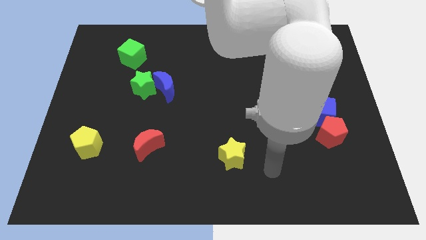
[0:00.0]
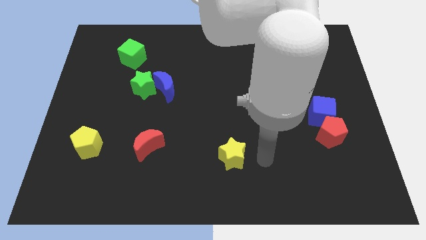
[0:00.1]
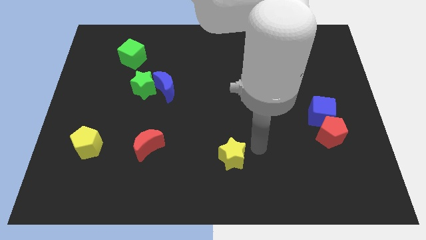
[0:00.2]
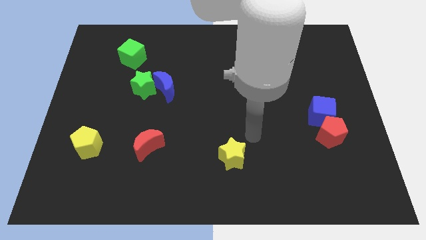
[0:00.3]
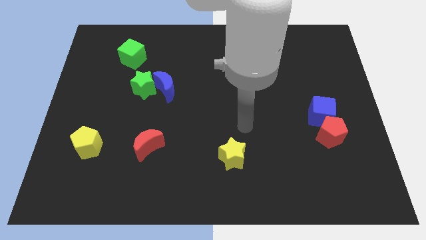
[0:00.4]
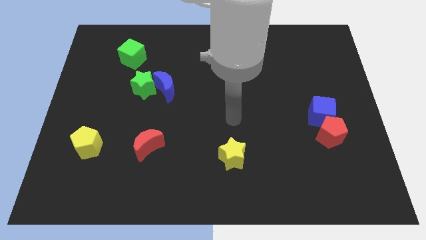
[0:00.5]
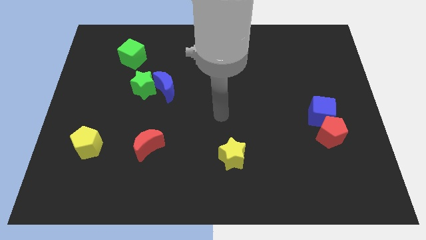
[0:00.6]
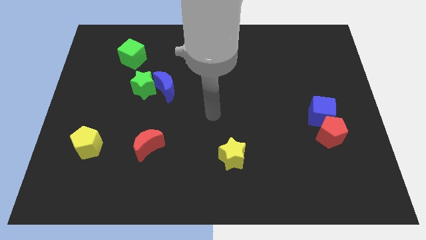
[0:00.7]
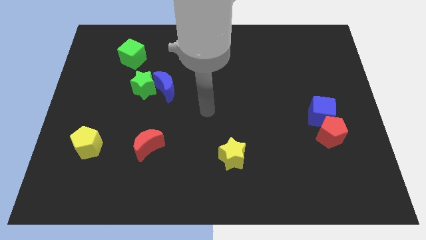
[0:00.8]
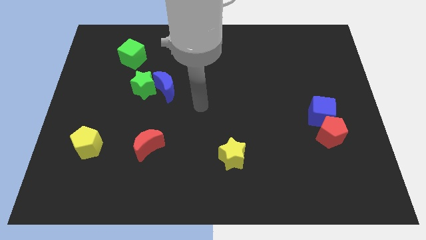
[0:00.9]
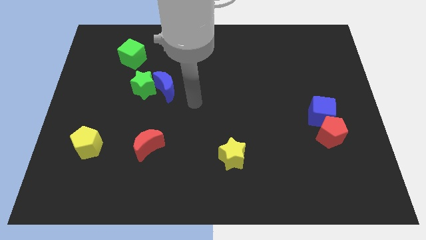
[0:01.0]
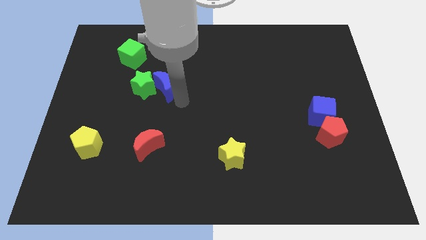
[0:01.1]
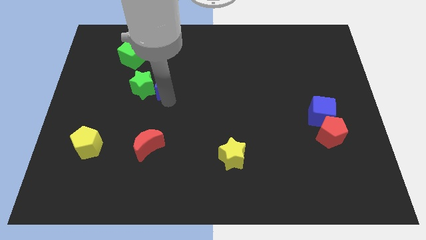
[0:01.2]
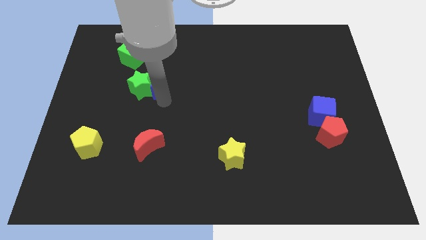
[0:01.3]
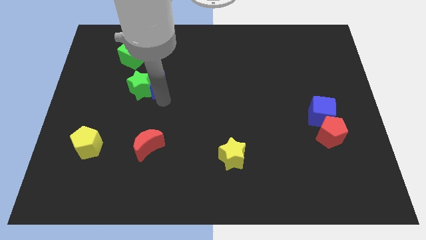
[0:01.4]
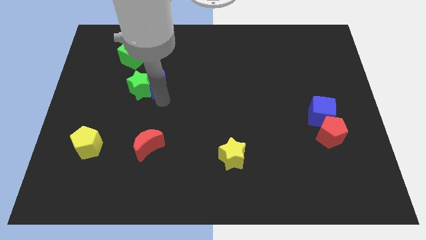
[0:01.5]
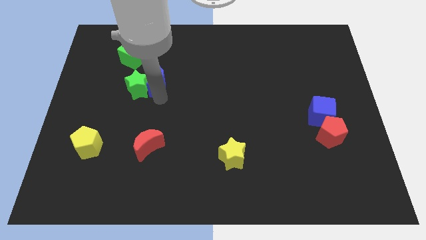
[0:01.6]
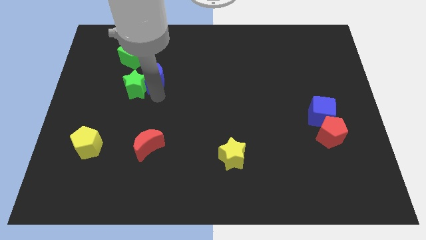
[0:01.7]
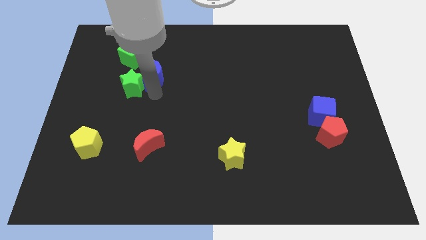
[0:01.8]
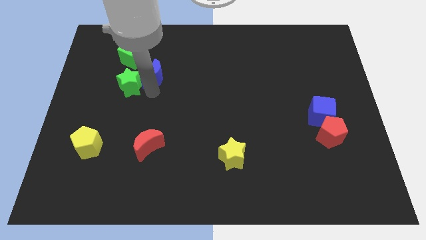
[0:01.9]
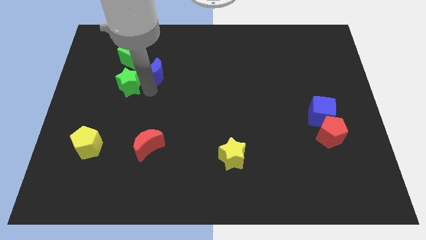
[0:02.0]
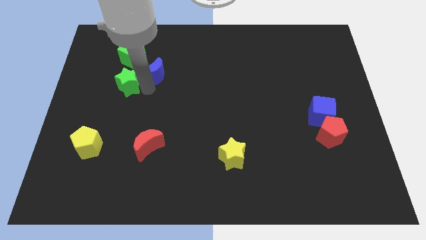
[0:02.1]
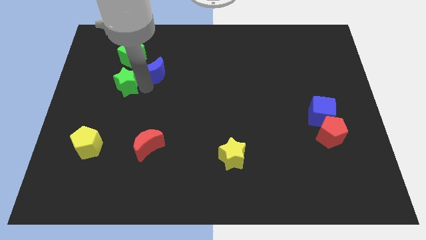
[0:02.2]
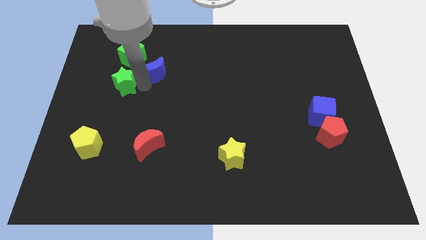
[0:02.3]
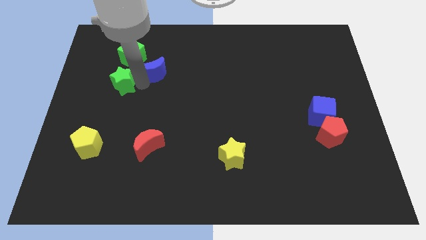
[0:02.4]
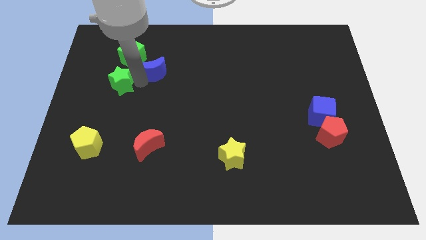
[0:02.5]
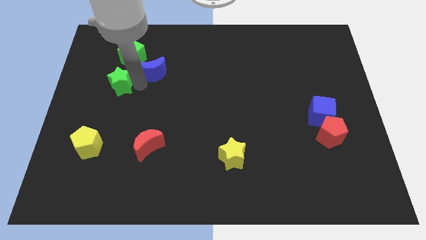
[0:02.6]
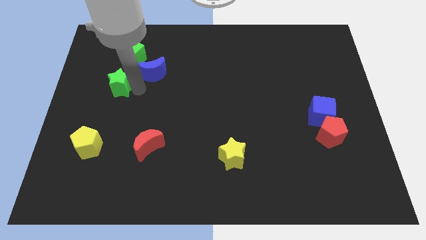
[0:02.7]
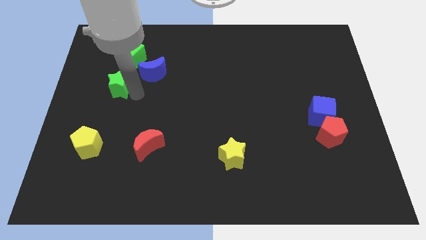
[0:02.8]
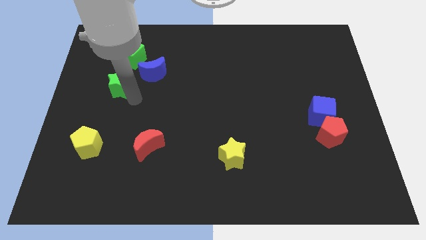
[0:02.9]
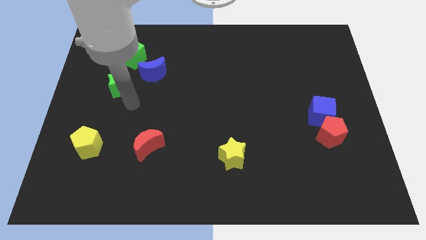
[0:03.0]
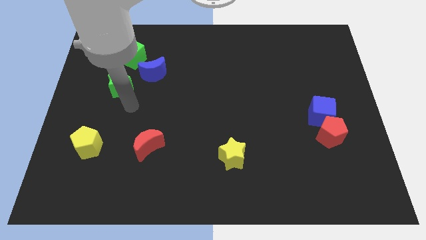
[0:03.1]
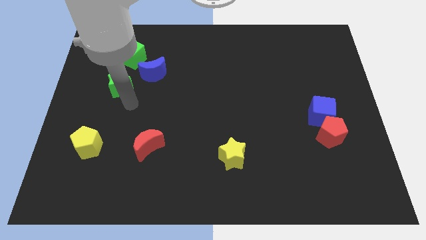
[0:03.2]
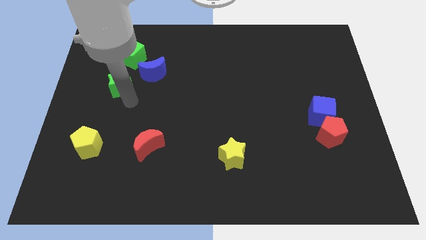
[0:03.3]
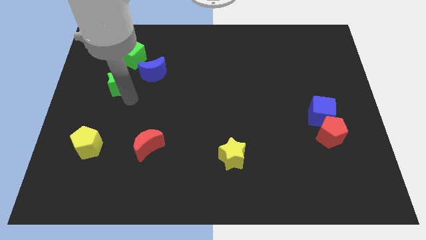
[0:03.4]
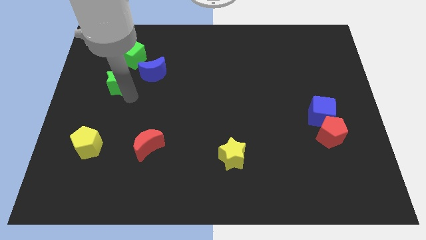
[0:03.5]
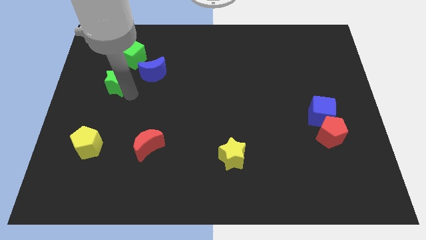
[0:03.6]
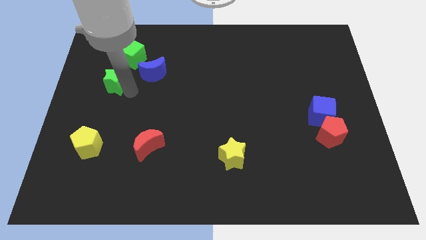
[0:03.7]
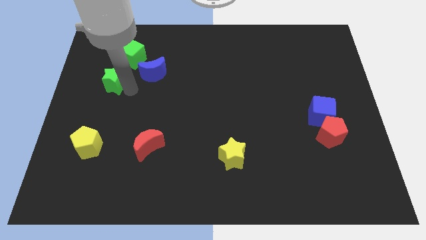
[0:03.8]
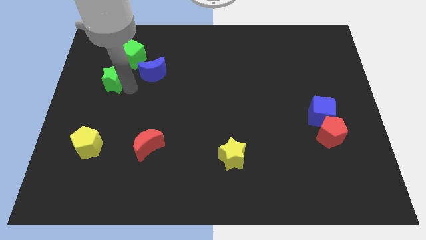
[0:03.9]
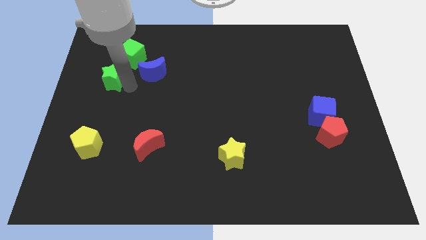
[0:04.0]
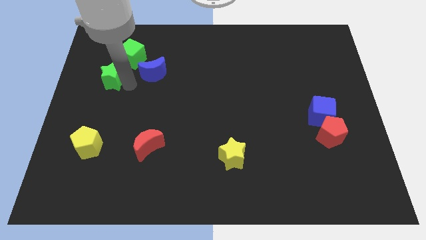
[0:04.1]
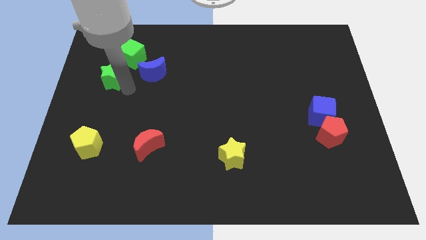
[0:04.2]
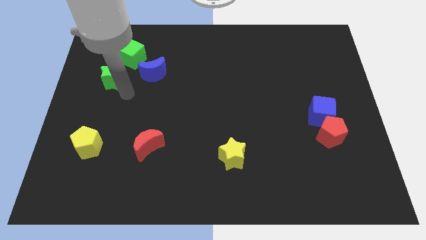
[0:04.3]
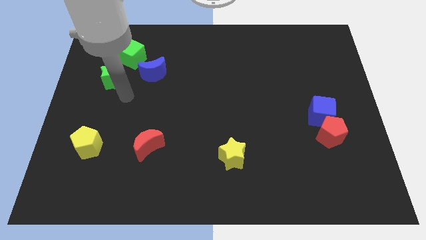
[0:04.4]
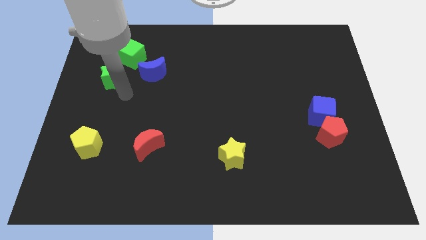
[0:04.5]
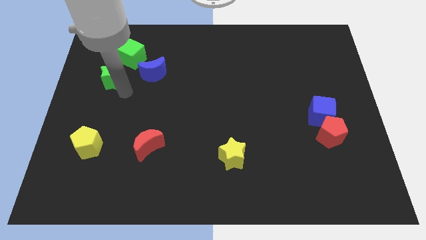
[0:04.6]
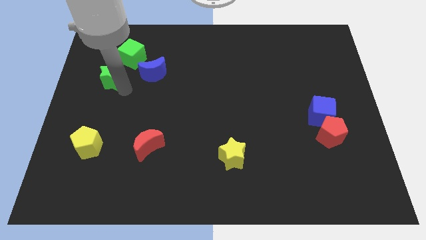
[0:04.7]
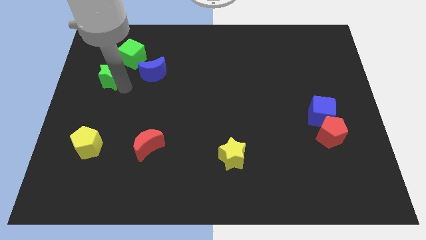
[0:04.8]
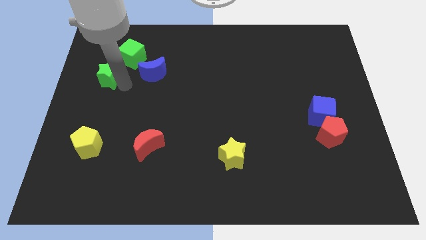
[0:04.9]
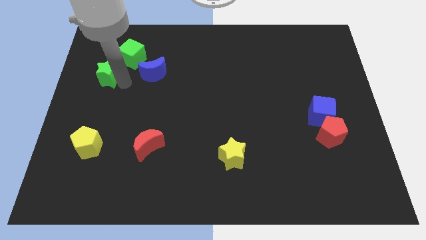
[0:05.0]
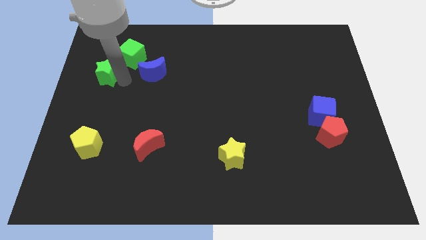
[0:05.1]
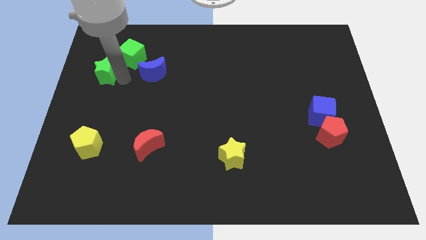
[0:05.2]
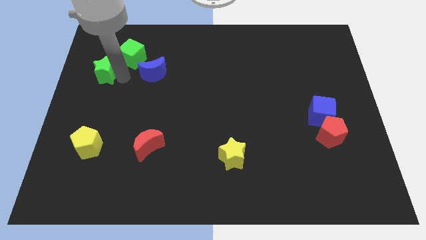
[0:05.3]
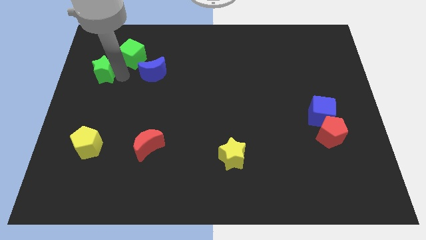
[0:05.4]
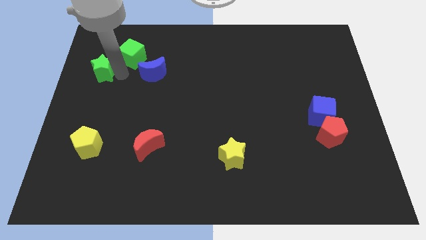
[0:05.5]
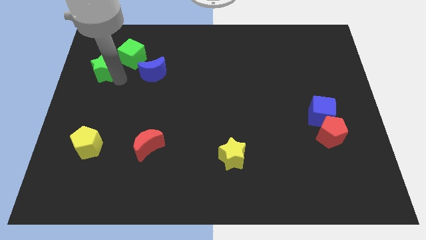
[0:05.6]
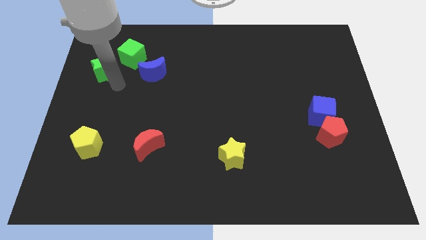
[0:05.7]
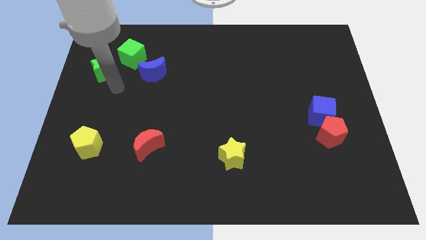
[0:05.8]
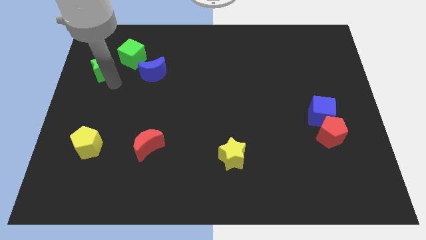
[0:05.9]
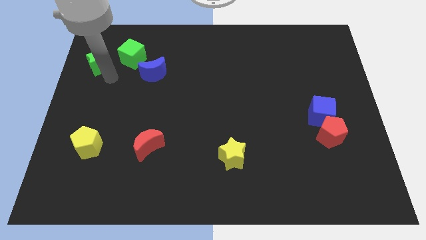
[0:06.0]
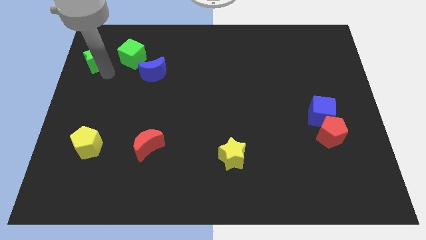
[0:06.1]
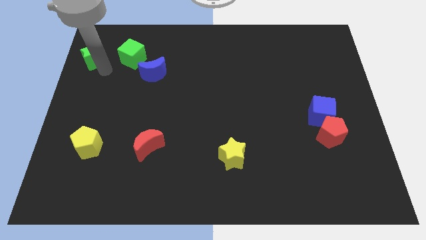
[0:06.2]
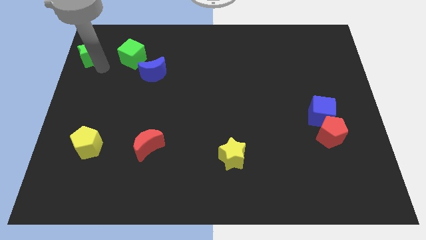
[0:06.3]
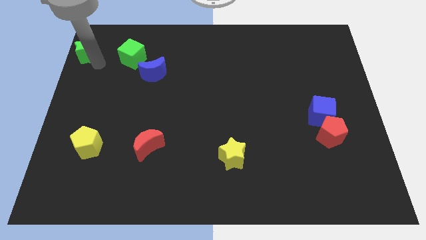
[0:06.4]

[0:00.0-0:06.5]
push the green star to the upper left corner

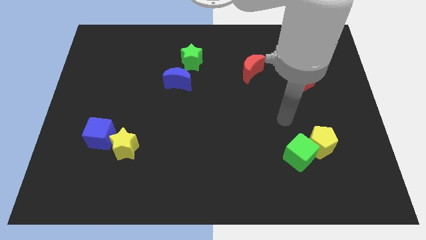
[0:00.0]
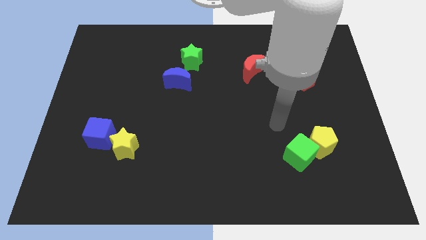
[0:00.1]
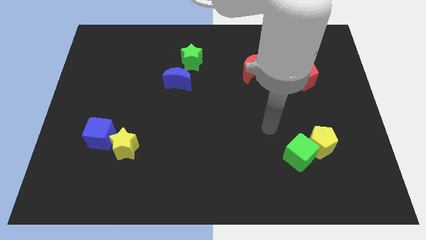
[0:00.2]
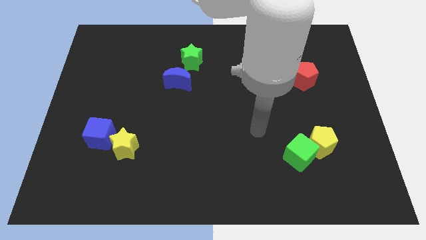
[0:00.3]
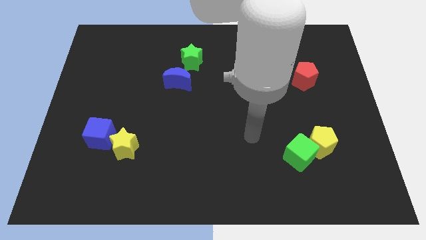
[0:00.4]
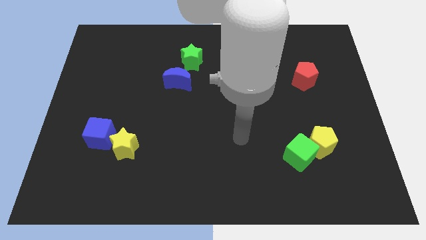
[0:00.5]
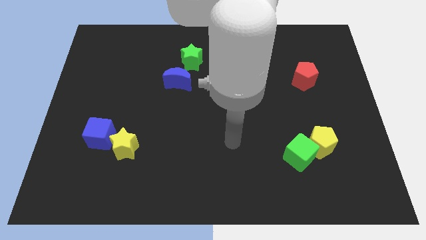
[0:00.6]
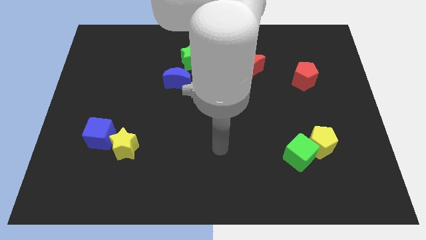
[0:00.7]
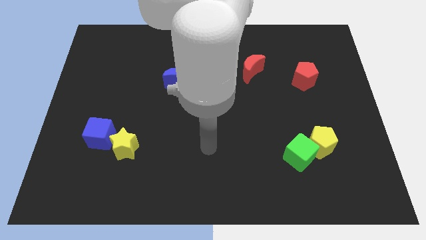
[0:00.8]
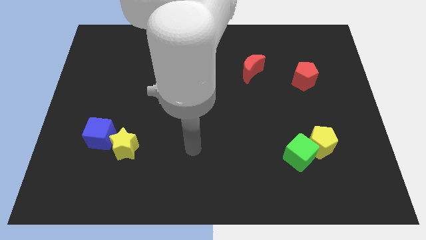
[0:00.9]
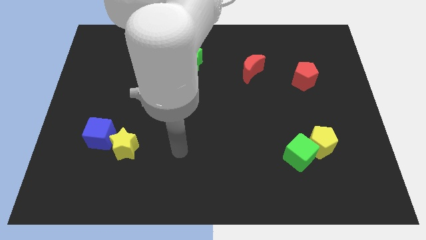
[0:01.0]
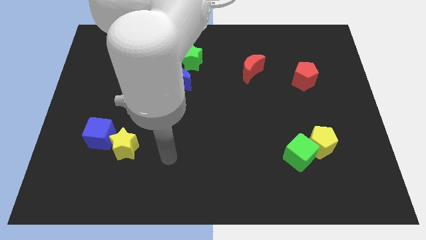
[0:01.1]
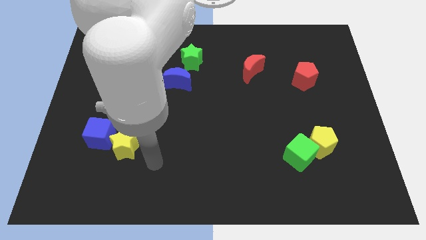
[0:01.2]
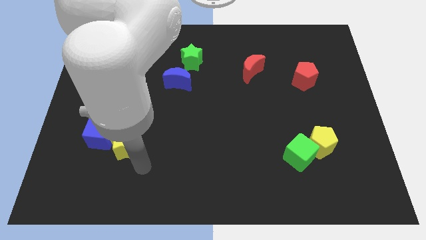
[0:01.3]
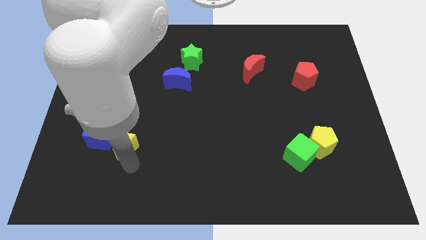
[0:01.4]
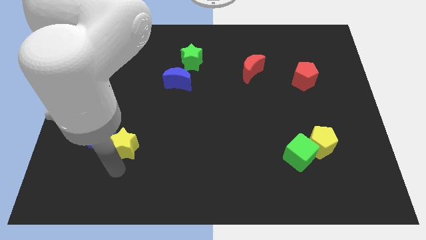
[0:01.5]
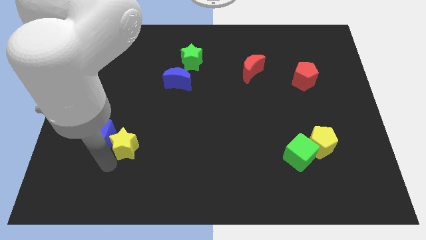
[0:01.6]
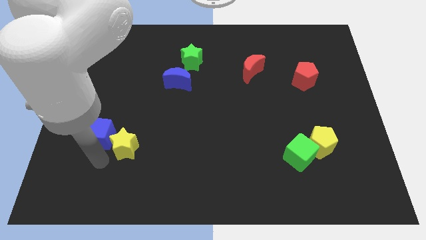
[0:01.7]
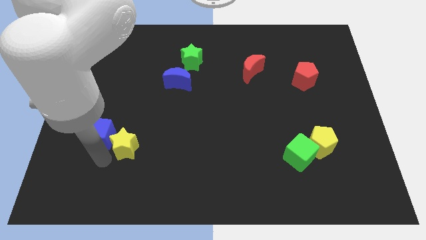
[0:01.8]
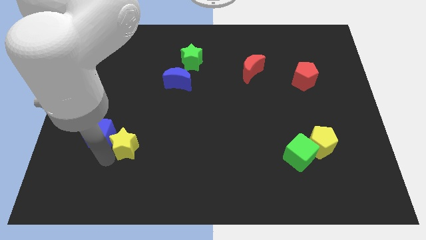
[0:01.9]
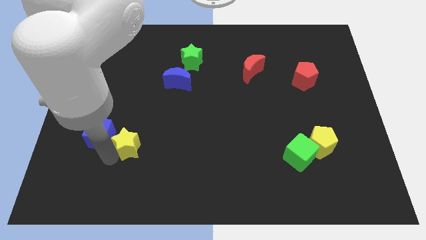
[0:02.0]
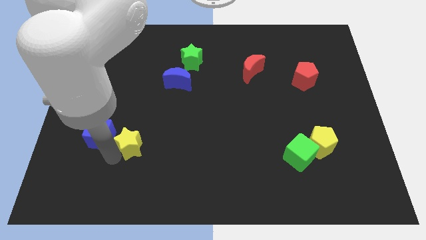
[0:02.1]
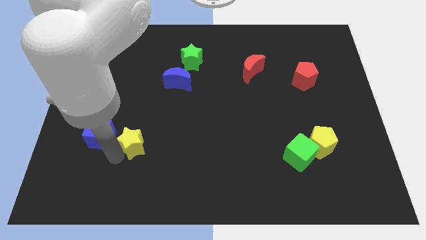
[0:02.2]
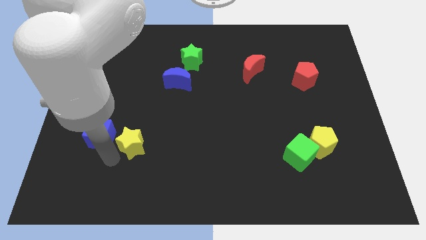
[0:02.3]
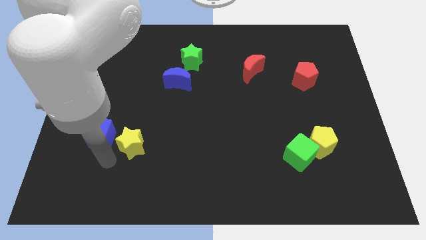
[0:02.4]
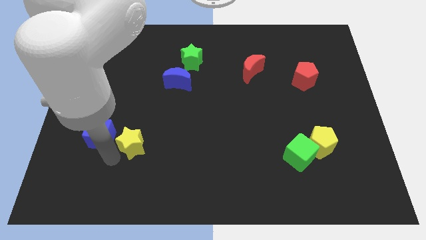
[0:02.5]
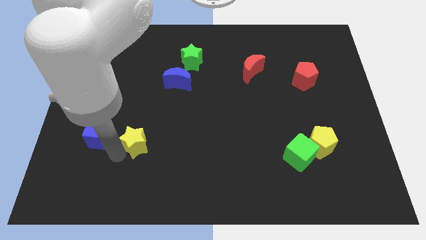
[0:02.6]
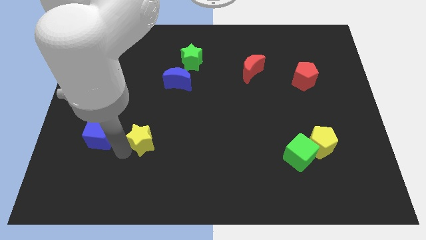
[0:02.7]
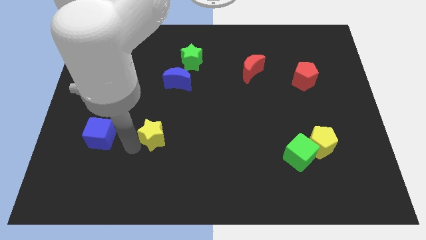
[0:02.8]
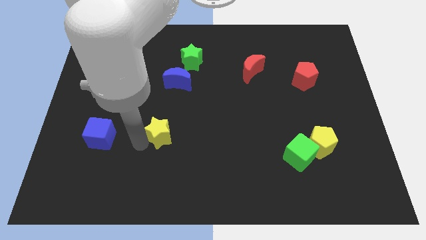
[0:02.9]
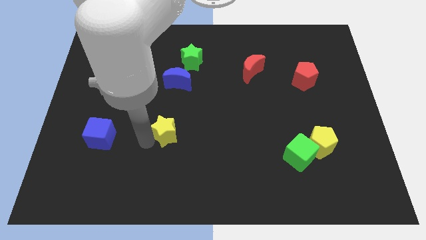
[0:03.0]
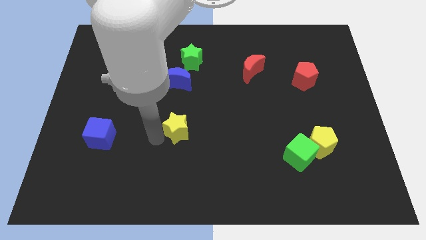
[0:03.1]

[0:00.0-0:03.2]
push the yellow star to the center
